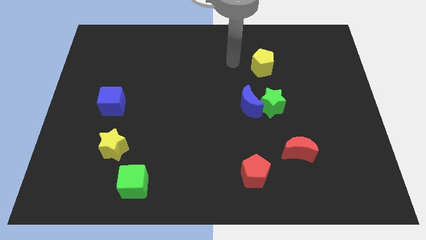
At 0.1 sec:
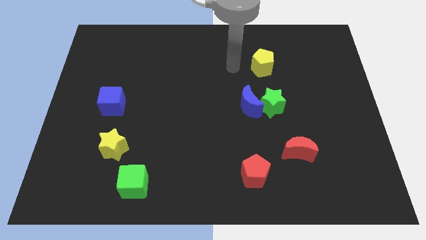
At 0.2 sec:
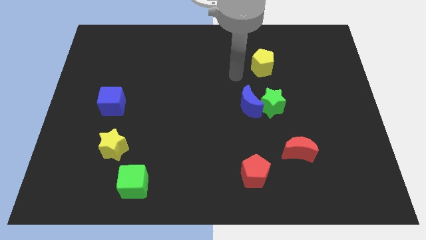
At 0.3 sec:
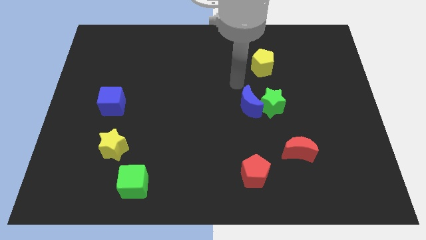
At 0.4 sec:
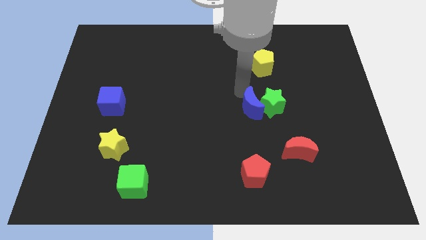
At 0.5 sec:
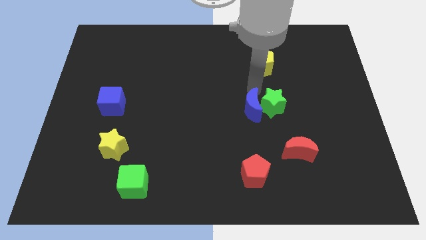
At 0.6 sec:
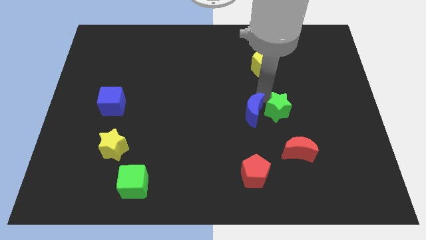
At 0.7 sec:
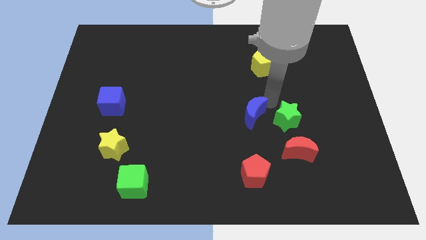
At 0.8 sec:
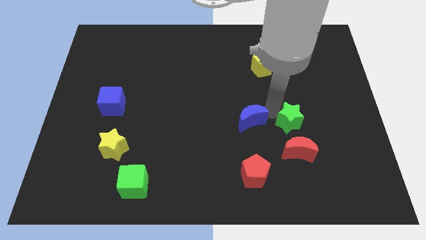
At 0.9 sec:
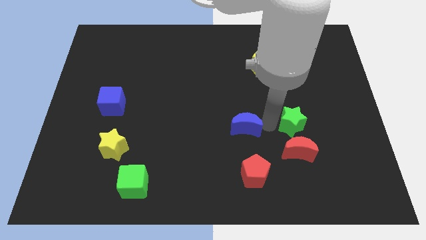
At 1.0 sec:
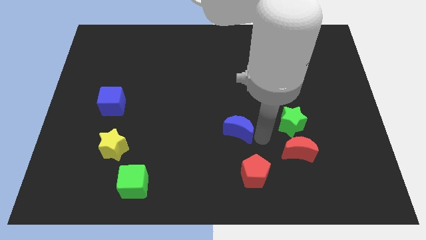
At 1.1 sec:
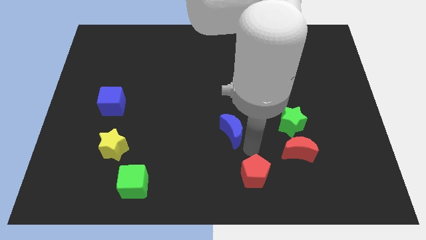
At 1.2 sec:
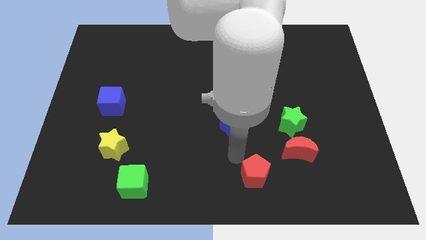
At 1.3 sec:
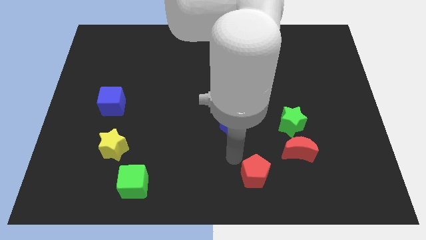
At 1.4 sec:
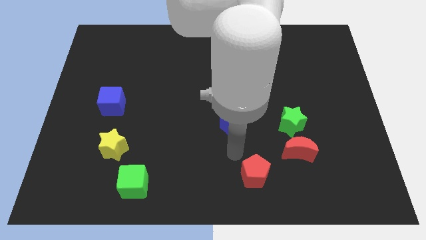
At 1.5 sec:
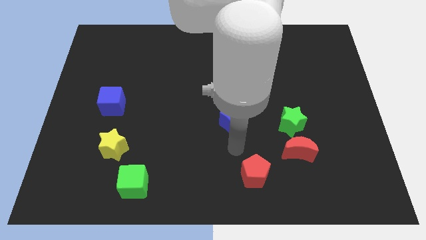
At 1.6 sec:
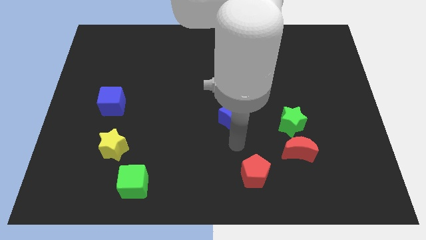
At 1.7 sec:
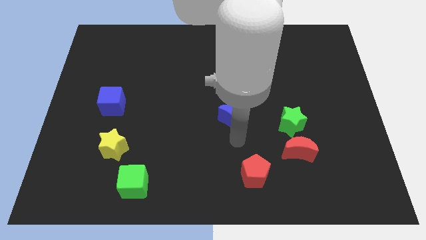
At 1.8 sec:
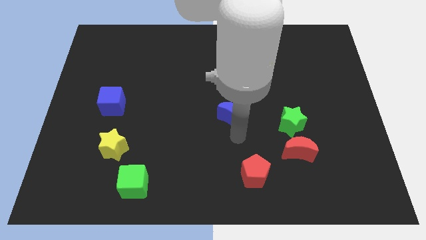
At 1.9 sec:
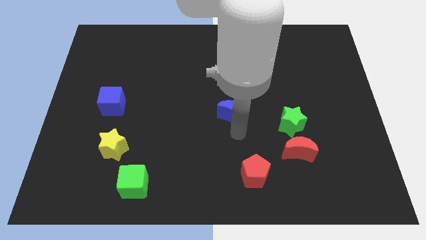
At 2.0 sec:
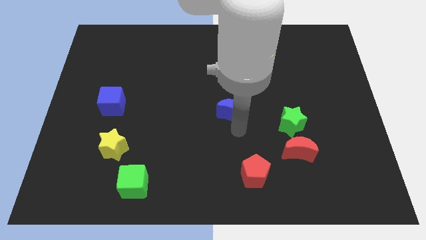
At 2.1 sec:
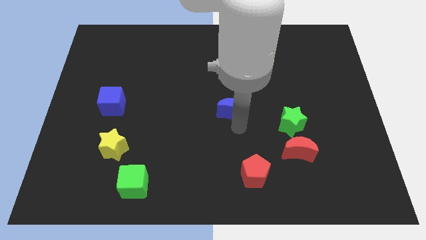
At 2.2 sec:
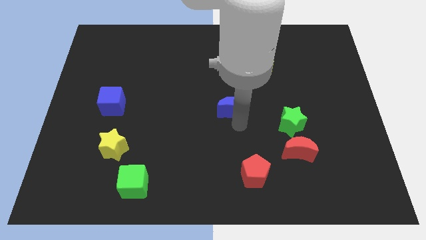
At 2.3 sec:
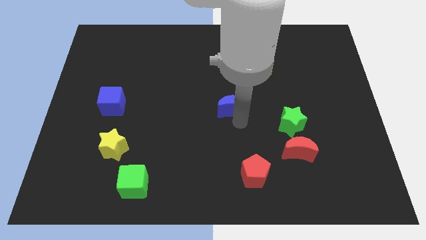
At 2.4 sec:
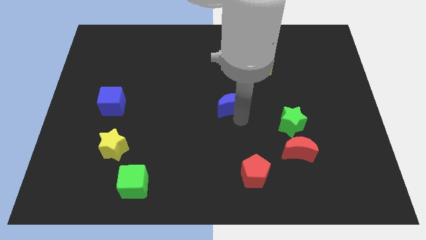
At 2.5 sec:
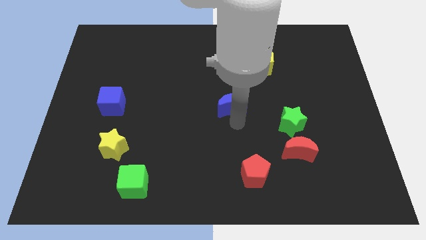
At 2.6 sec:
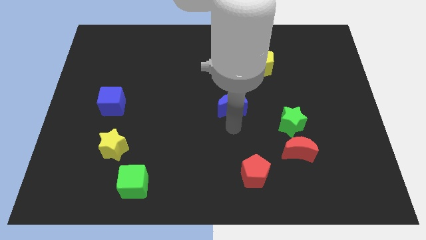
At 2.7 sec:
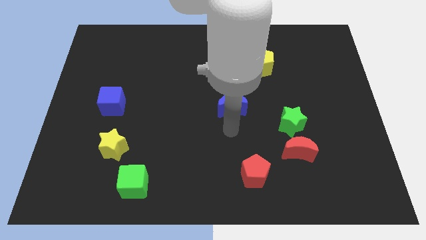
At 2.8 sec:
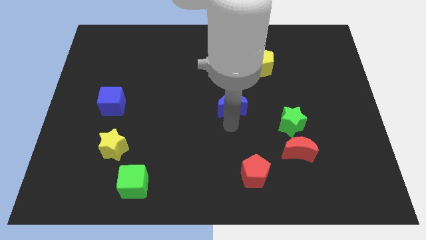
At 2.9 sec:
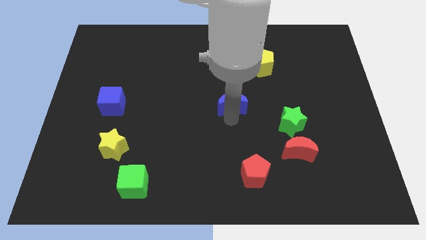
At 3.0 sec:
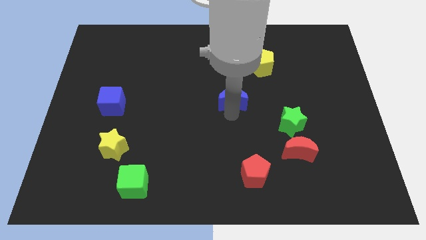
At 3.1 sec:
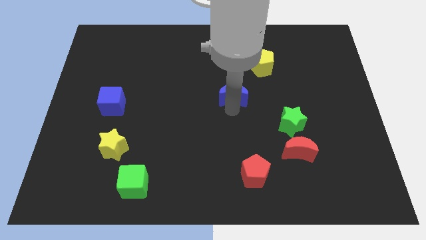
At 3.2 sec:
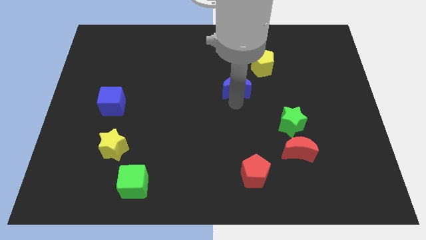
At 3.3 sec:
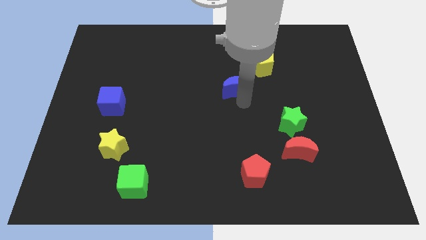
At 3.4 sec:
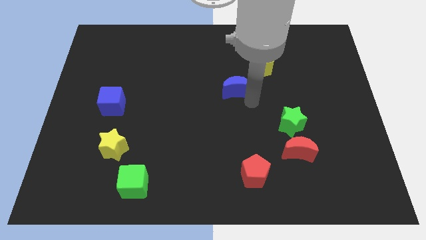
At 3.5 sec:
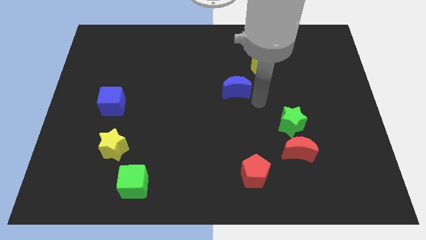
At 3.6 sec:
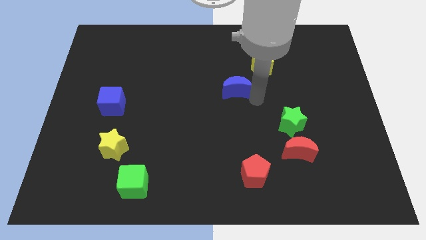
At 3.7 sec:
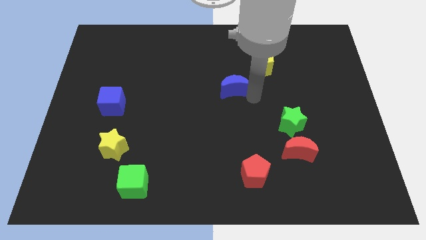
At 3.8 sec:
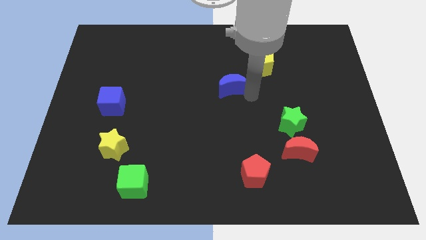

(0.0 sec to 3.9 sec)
push the blue moon diagonally up and left a bit

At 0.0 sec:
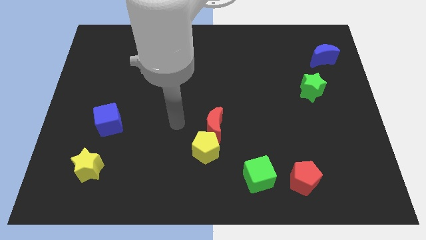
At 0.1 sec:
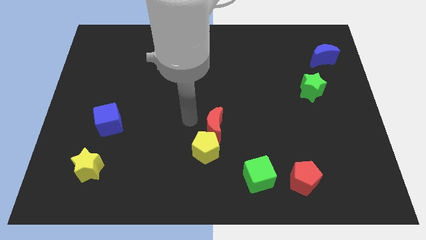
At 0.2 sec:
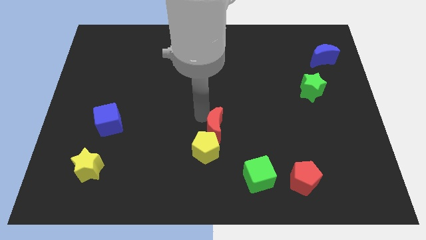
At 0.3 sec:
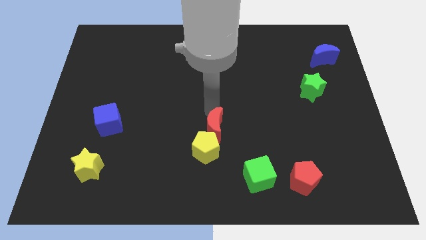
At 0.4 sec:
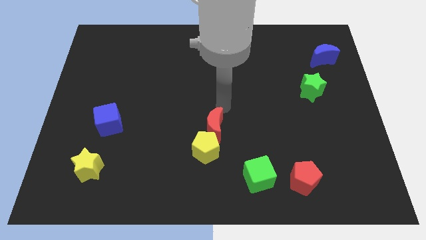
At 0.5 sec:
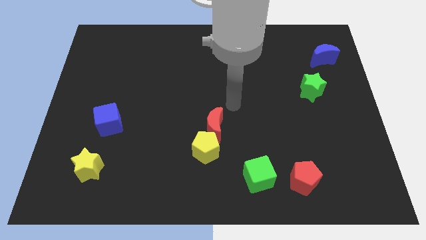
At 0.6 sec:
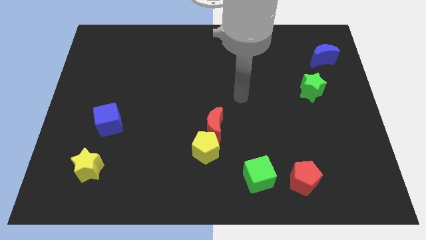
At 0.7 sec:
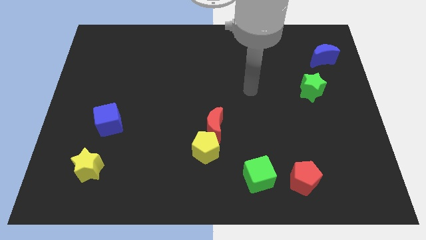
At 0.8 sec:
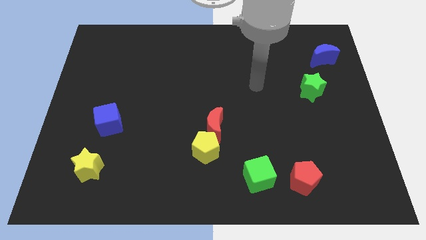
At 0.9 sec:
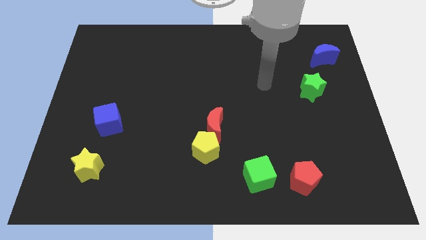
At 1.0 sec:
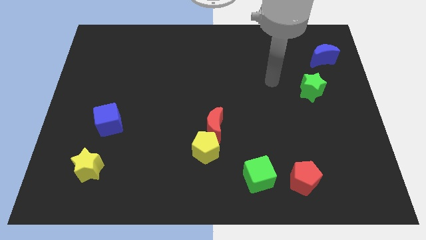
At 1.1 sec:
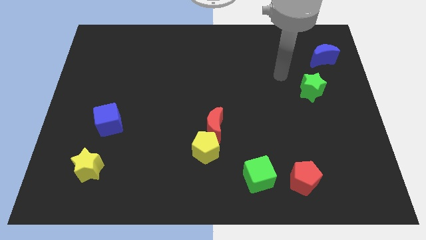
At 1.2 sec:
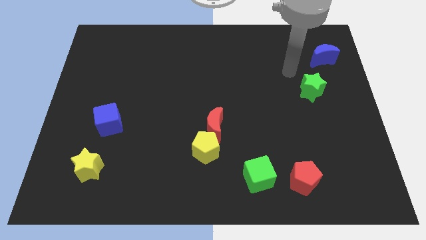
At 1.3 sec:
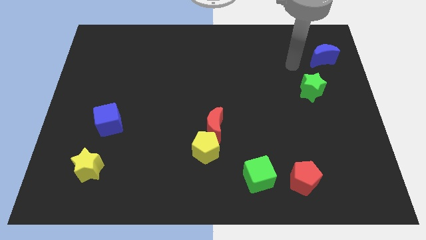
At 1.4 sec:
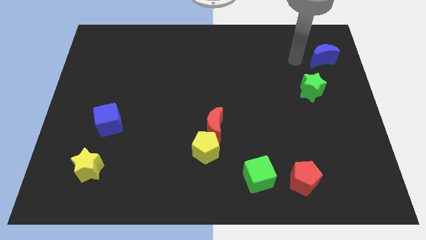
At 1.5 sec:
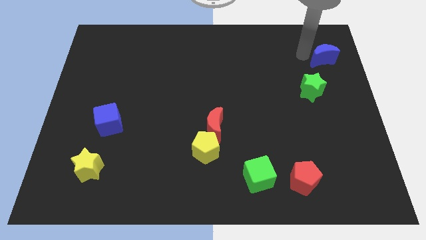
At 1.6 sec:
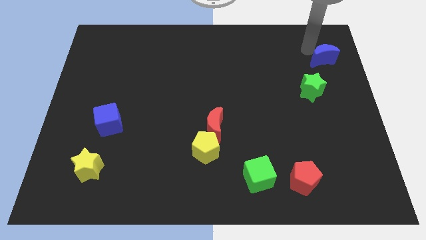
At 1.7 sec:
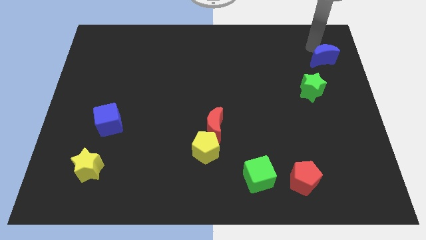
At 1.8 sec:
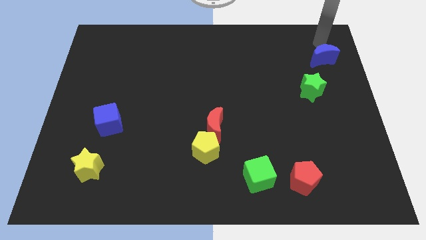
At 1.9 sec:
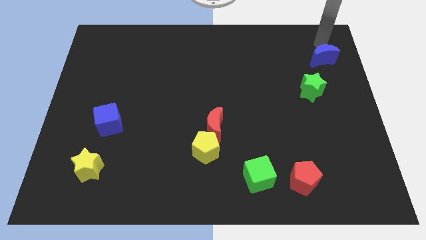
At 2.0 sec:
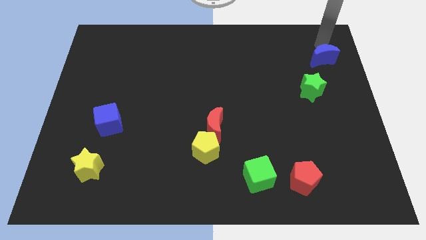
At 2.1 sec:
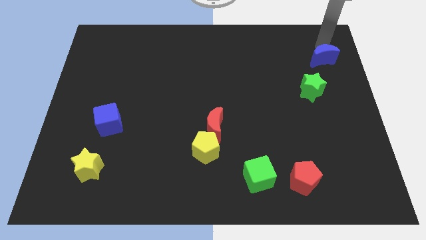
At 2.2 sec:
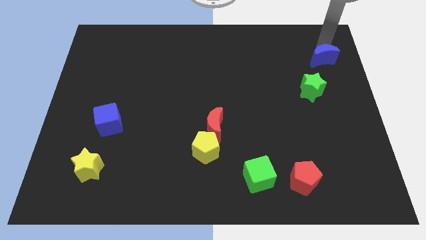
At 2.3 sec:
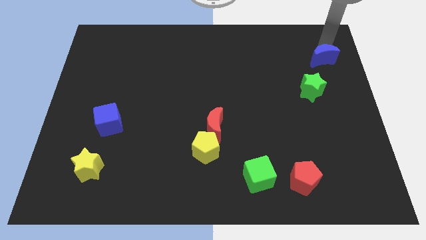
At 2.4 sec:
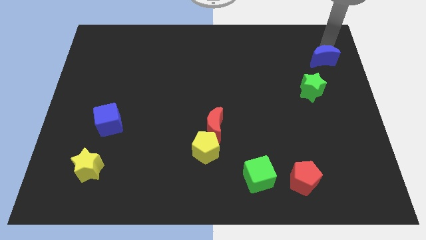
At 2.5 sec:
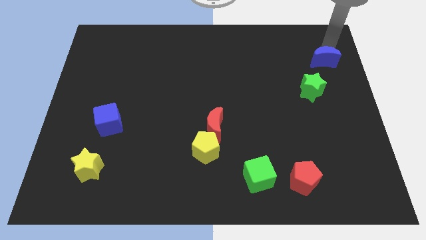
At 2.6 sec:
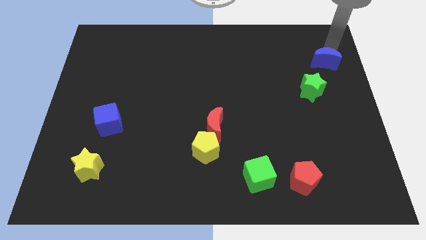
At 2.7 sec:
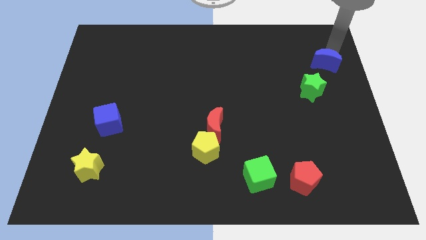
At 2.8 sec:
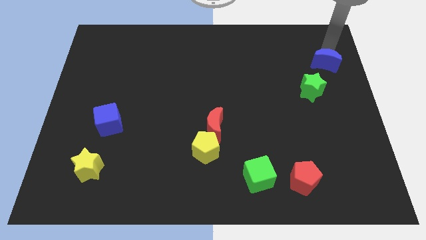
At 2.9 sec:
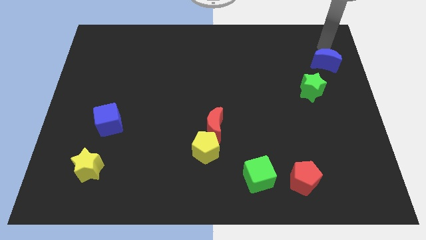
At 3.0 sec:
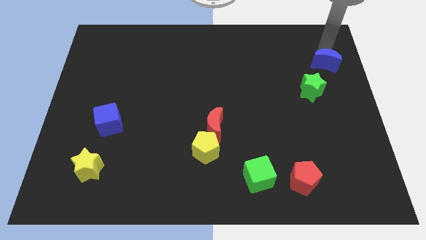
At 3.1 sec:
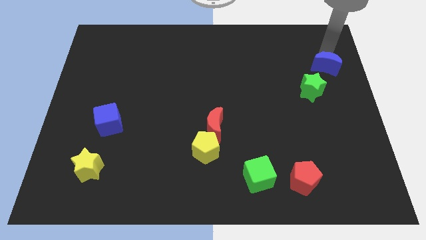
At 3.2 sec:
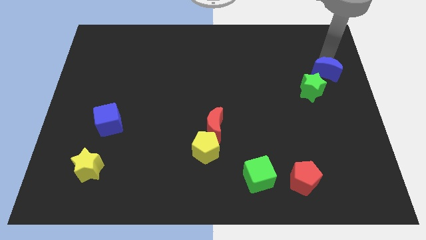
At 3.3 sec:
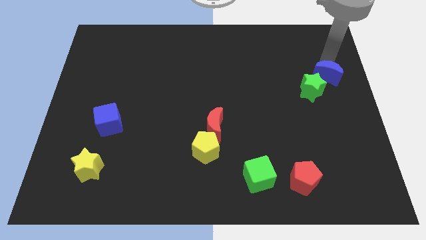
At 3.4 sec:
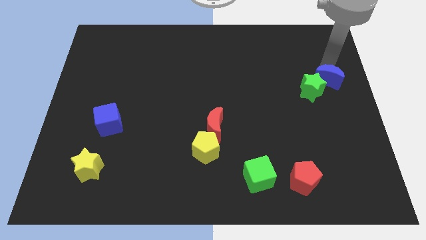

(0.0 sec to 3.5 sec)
move the blue moon slightly down

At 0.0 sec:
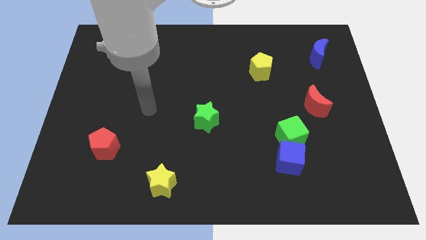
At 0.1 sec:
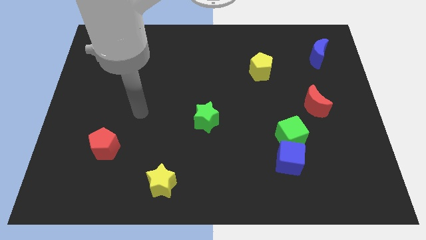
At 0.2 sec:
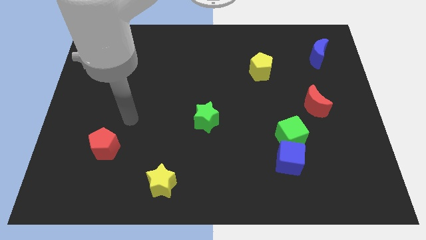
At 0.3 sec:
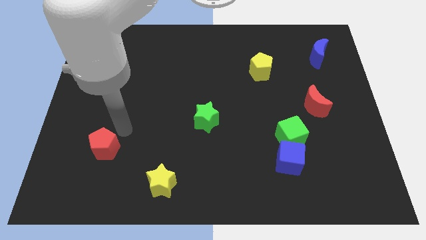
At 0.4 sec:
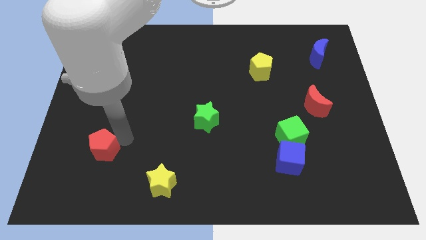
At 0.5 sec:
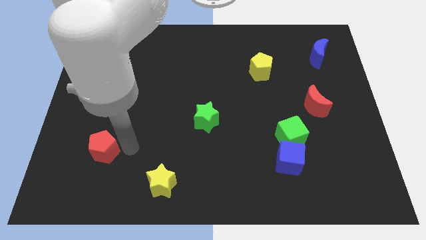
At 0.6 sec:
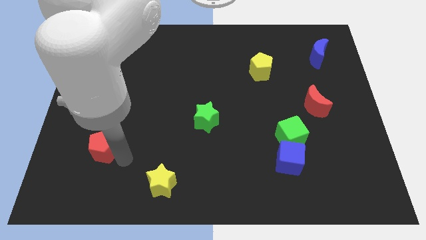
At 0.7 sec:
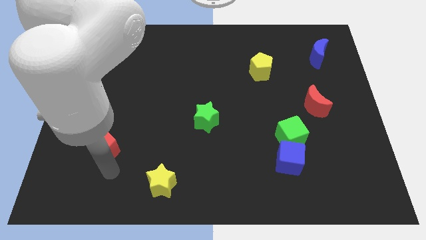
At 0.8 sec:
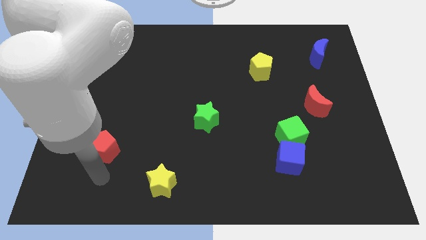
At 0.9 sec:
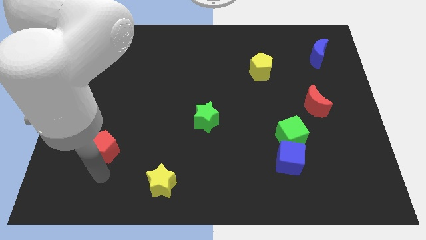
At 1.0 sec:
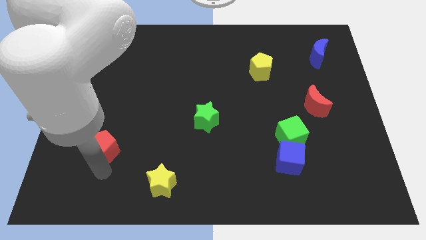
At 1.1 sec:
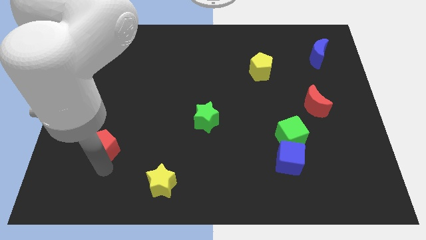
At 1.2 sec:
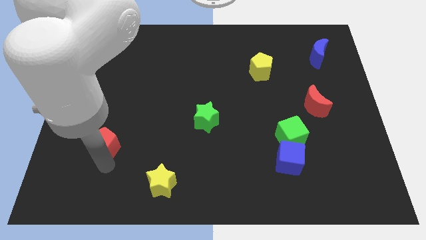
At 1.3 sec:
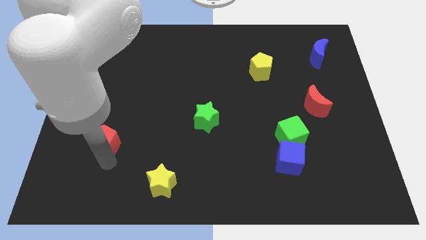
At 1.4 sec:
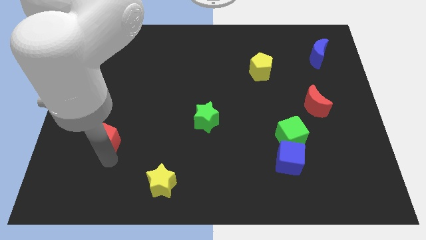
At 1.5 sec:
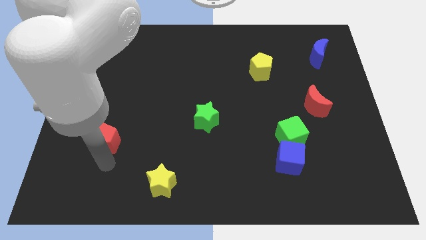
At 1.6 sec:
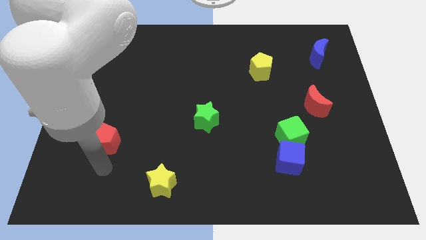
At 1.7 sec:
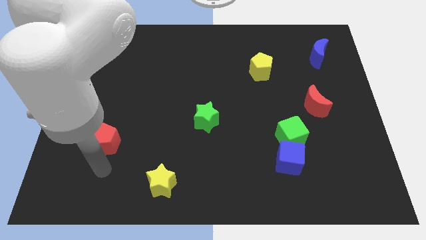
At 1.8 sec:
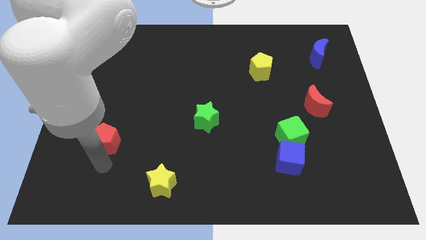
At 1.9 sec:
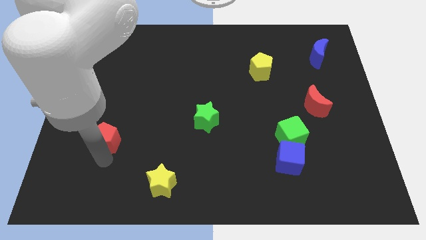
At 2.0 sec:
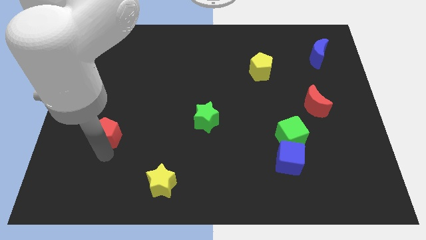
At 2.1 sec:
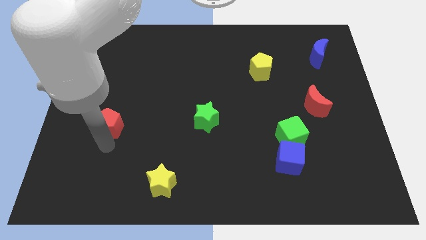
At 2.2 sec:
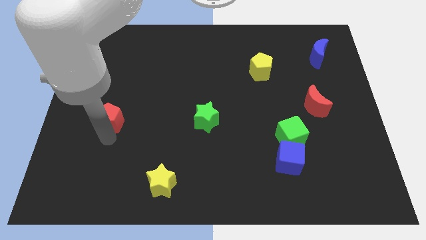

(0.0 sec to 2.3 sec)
slide the red pentagon upwards a bit
